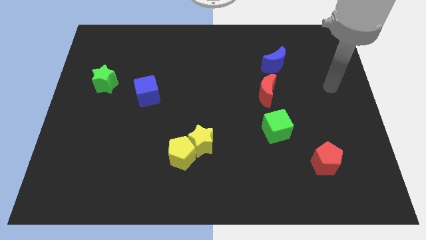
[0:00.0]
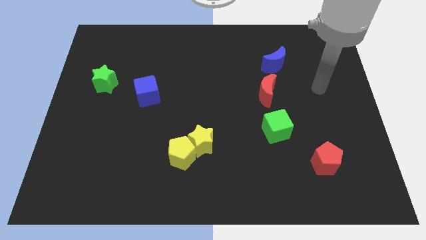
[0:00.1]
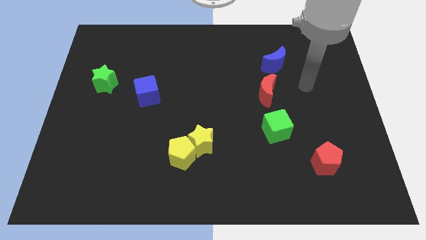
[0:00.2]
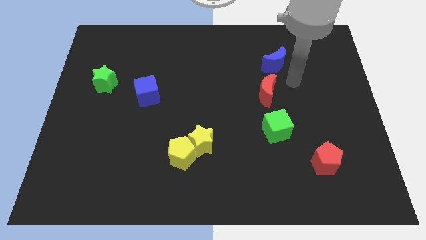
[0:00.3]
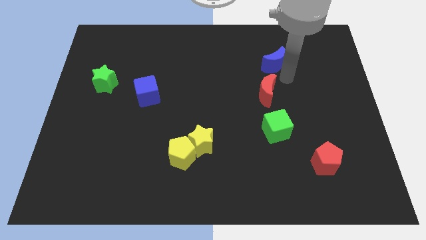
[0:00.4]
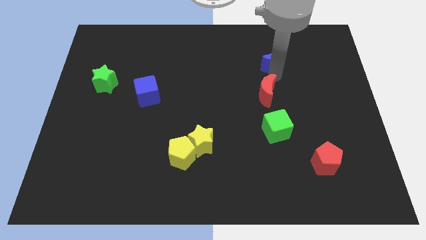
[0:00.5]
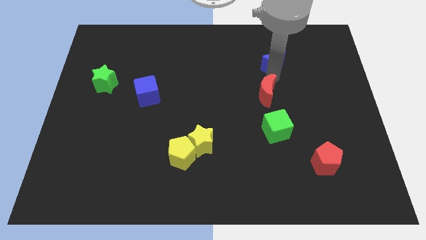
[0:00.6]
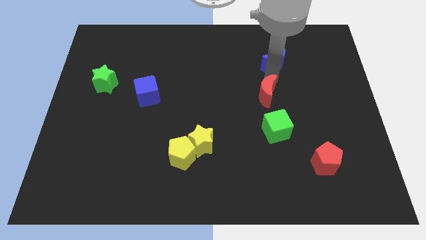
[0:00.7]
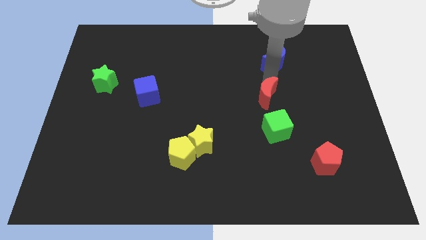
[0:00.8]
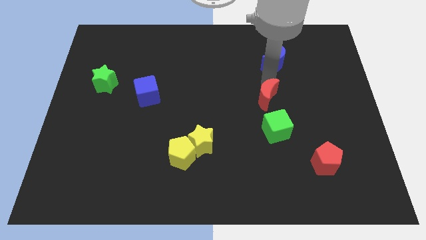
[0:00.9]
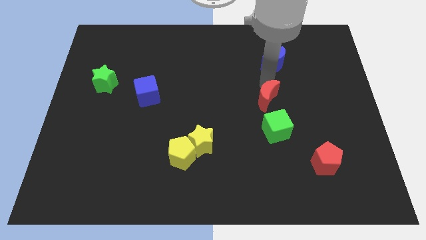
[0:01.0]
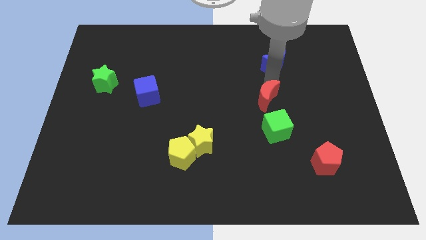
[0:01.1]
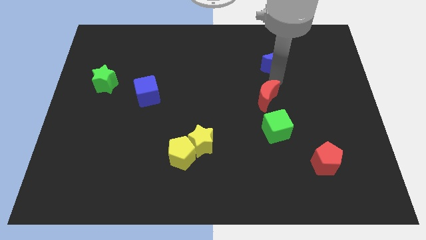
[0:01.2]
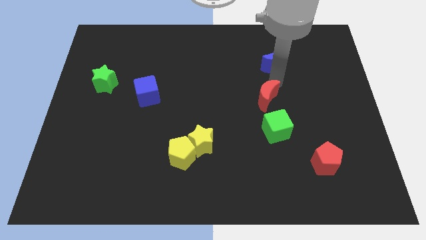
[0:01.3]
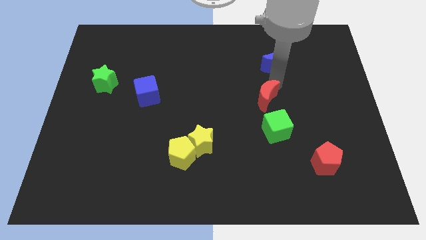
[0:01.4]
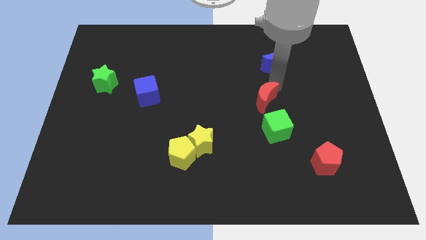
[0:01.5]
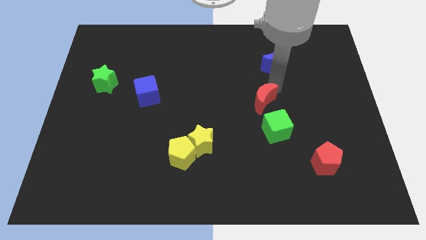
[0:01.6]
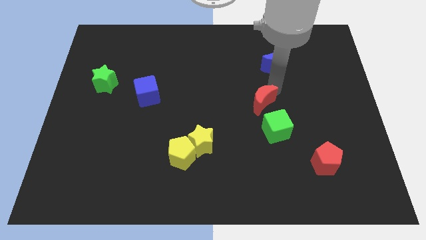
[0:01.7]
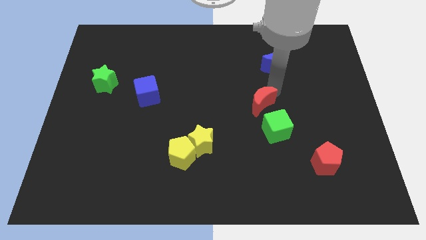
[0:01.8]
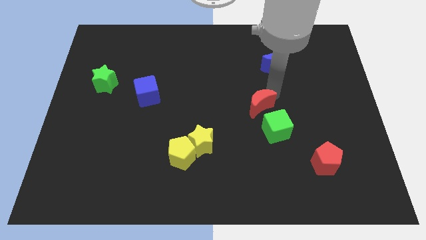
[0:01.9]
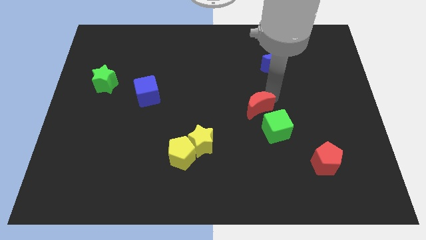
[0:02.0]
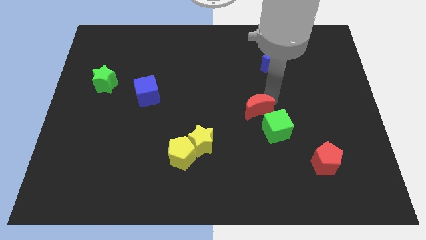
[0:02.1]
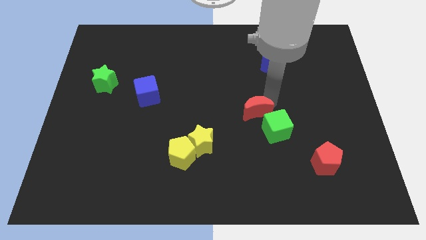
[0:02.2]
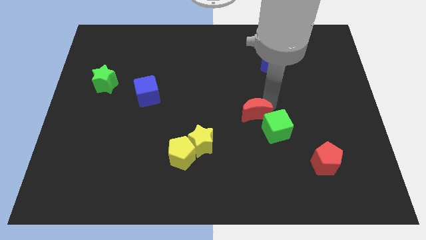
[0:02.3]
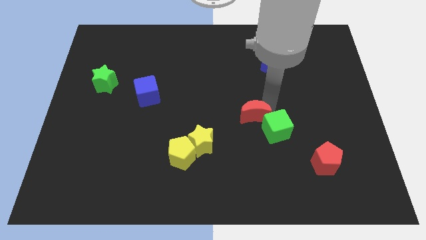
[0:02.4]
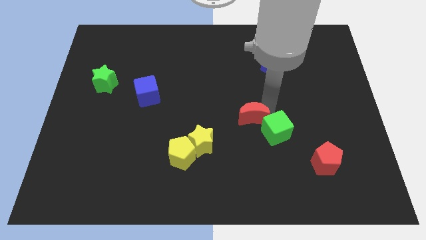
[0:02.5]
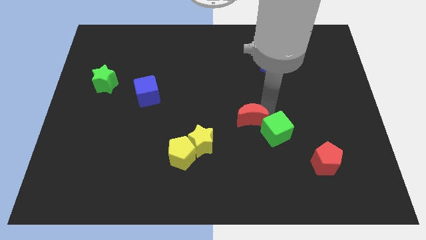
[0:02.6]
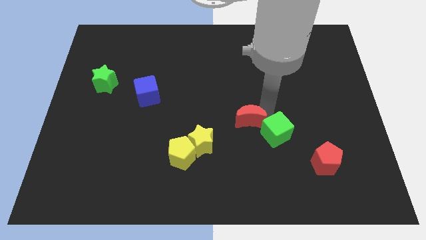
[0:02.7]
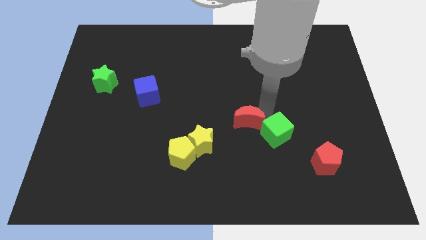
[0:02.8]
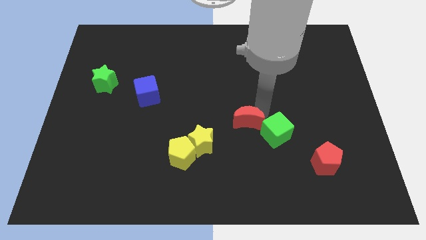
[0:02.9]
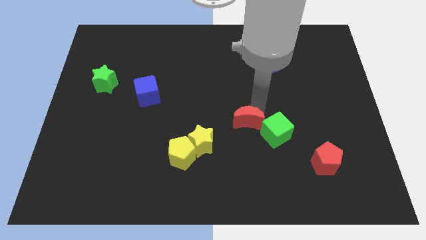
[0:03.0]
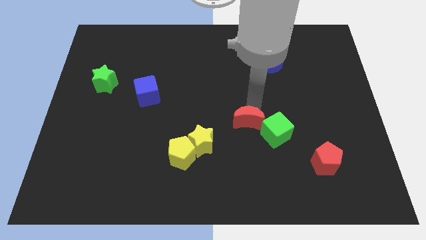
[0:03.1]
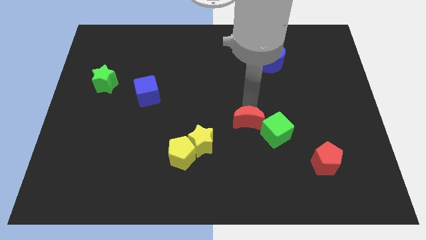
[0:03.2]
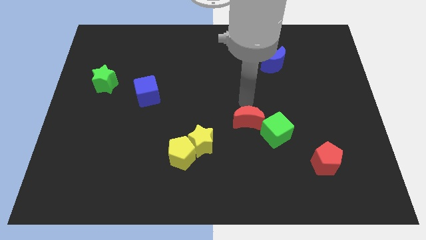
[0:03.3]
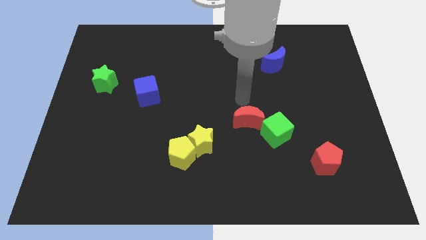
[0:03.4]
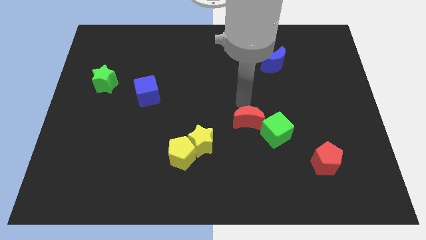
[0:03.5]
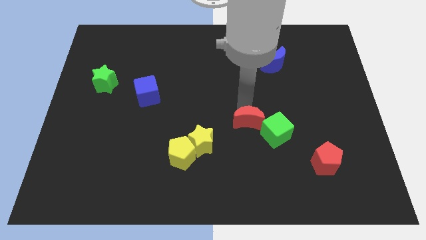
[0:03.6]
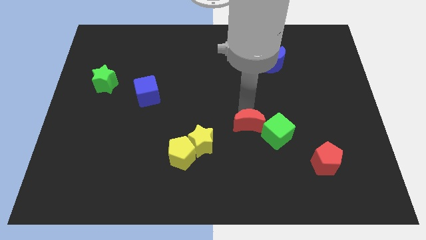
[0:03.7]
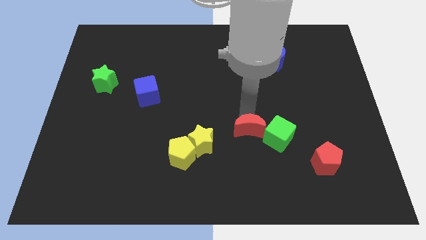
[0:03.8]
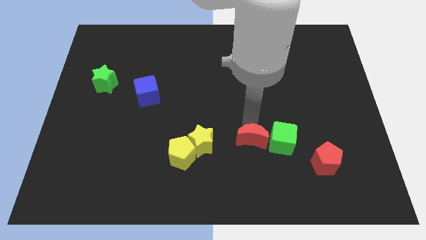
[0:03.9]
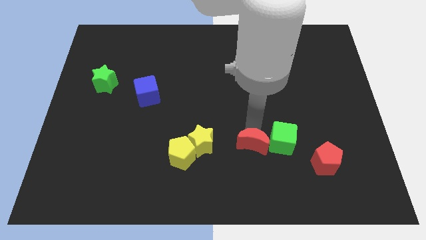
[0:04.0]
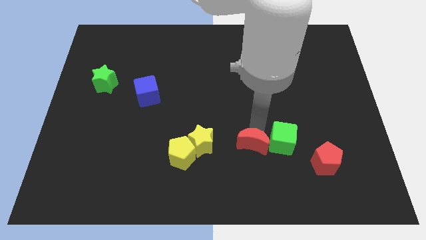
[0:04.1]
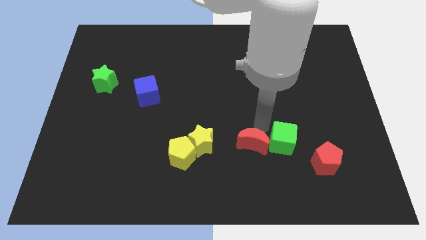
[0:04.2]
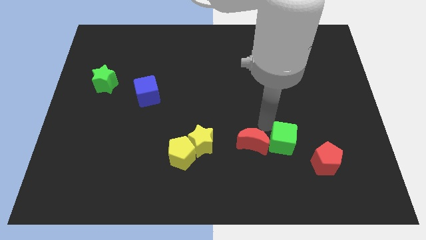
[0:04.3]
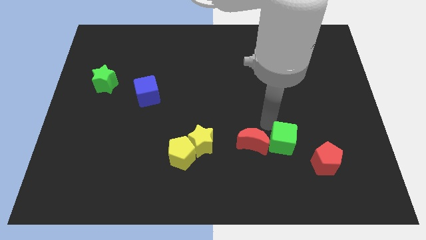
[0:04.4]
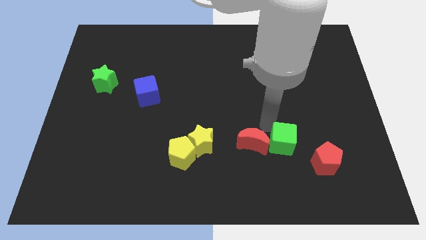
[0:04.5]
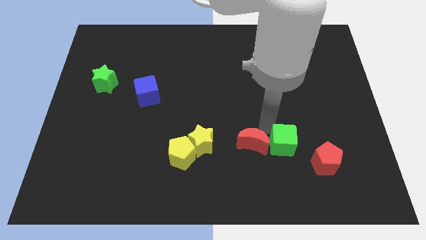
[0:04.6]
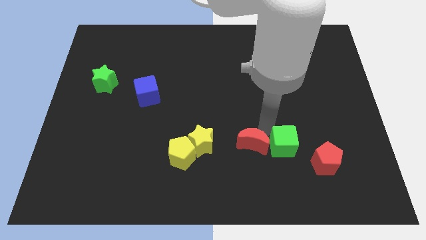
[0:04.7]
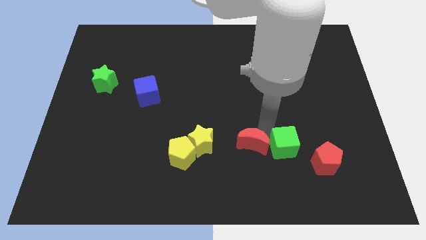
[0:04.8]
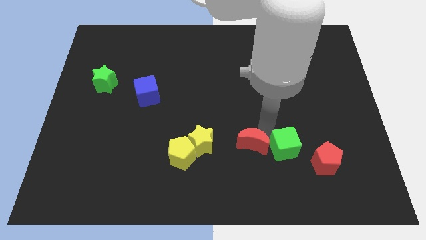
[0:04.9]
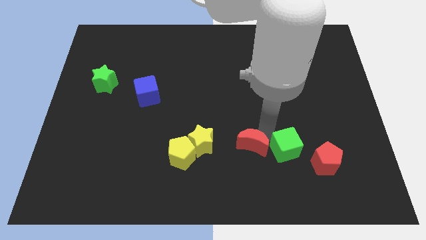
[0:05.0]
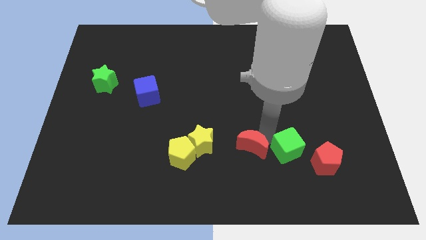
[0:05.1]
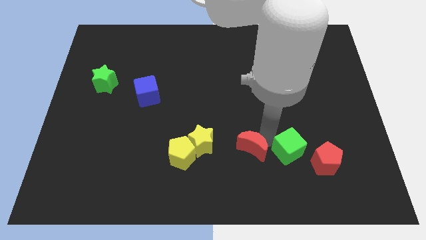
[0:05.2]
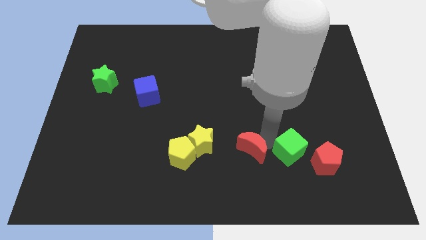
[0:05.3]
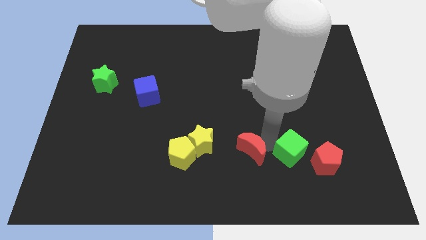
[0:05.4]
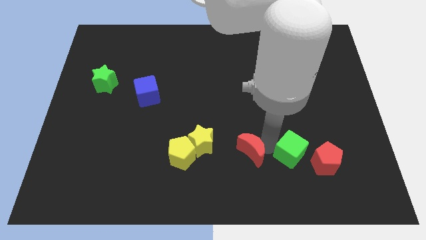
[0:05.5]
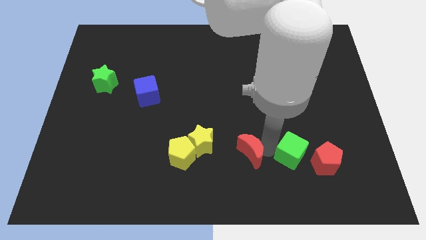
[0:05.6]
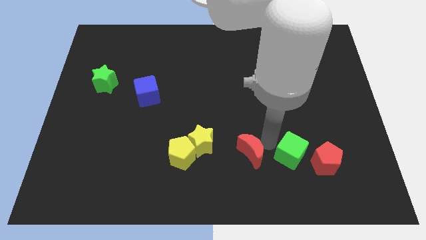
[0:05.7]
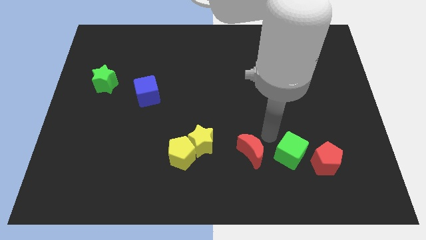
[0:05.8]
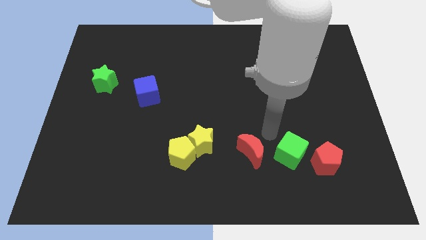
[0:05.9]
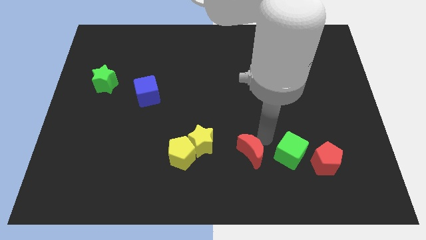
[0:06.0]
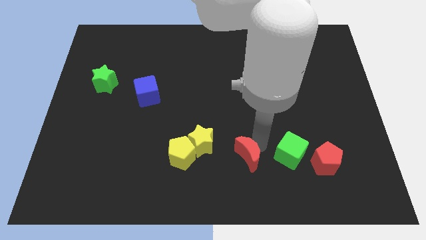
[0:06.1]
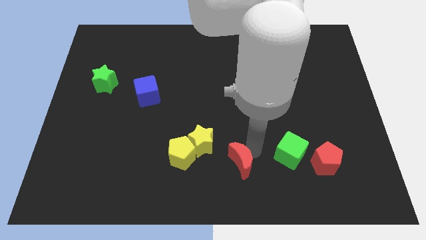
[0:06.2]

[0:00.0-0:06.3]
slide the red moon to the bottom

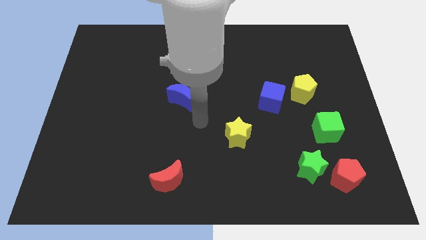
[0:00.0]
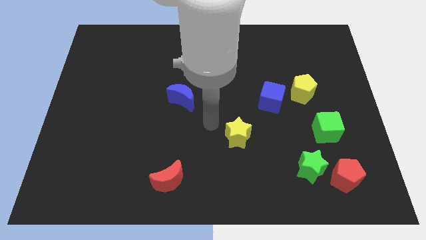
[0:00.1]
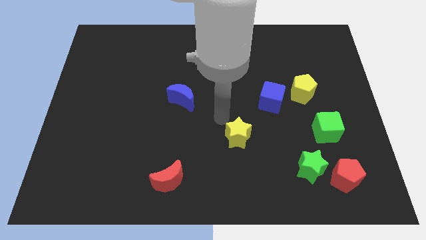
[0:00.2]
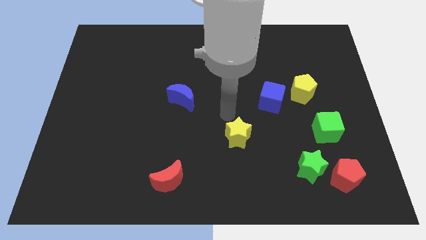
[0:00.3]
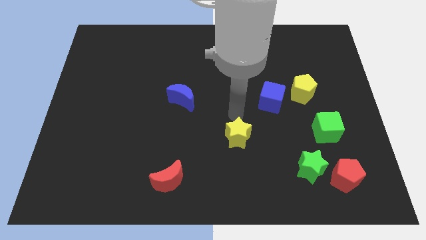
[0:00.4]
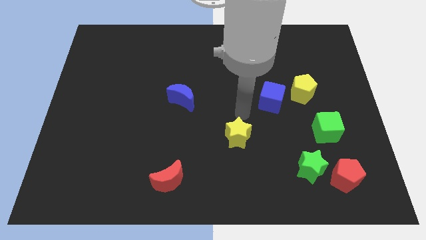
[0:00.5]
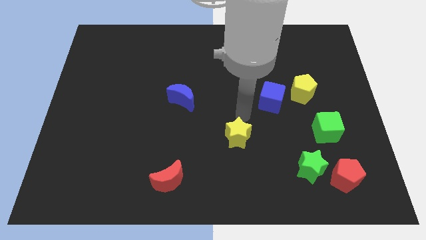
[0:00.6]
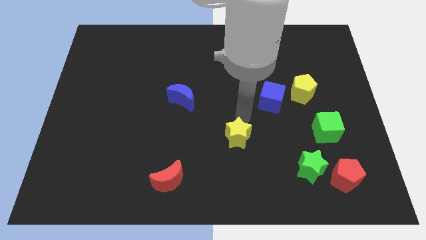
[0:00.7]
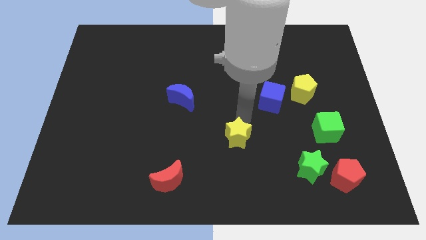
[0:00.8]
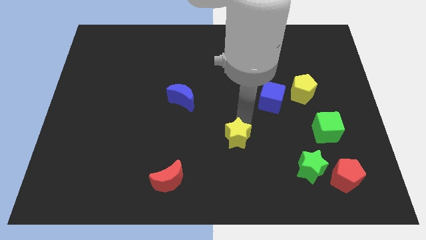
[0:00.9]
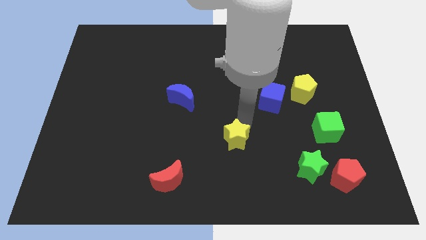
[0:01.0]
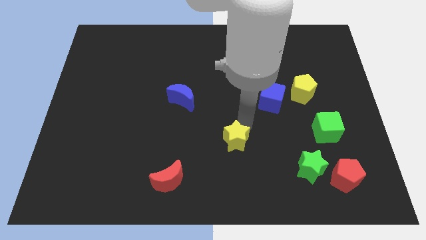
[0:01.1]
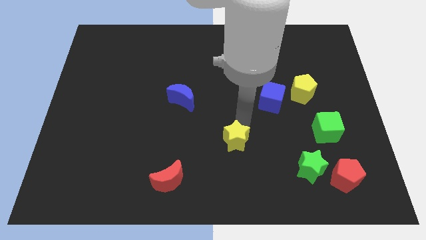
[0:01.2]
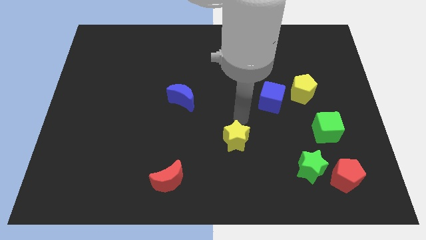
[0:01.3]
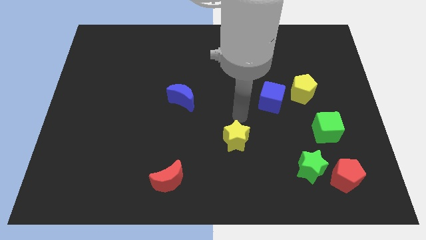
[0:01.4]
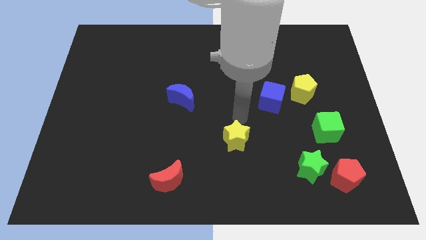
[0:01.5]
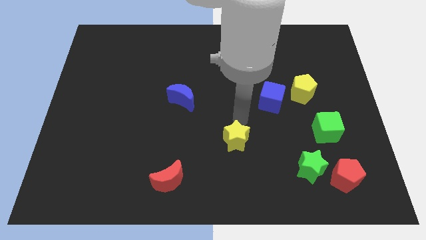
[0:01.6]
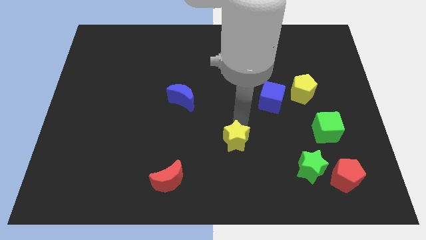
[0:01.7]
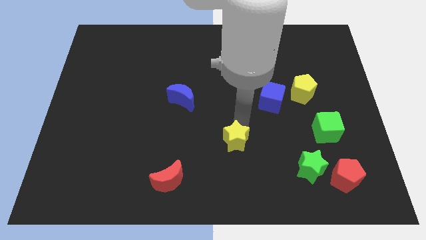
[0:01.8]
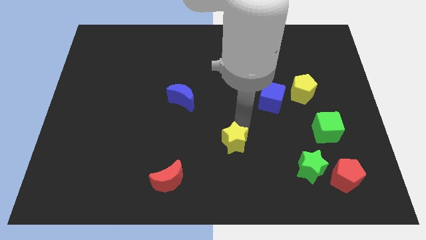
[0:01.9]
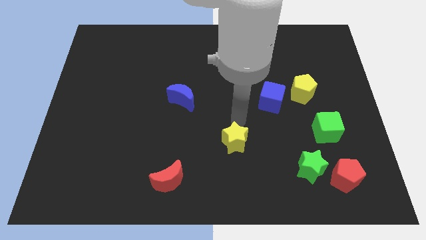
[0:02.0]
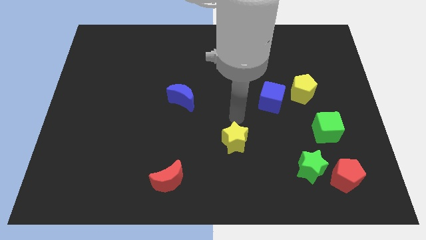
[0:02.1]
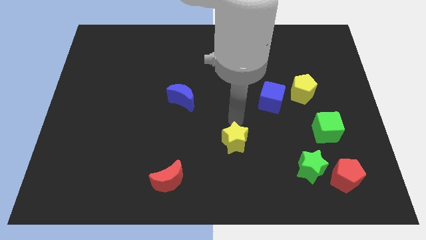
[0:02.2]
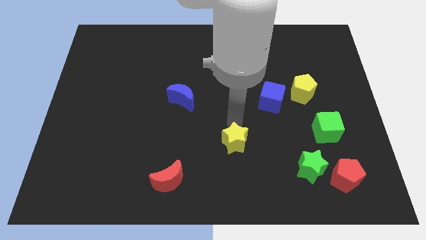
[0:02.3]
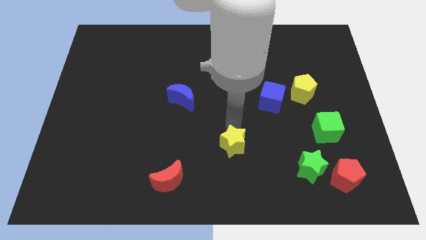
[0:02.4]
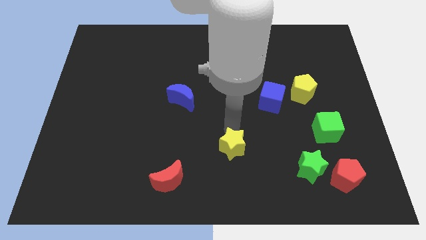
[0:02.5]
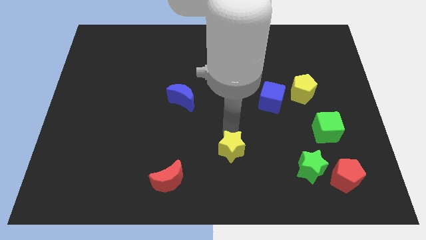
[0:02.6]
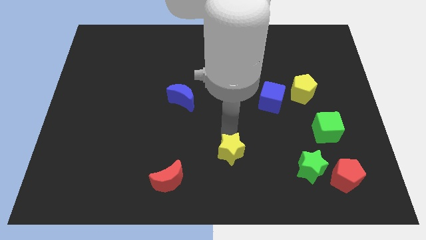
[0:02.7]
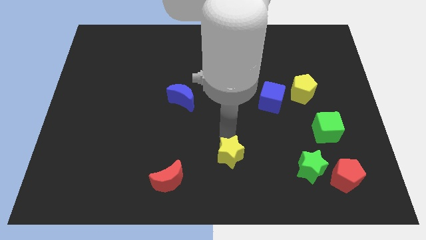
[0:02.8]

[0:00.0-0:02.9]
slide the yellow star to the bottom
